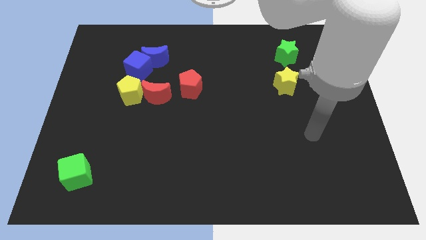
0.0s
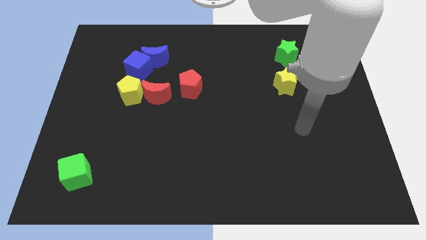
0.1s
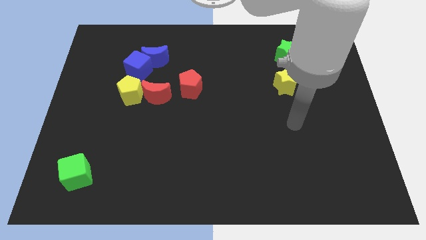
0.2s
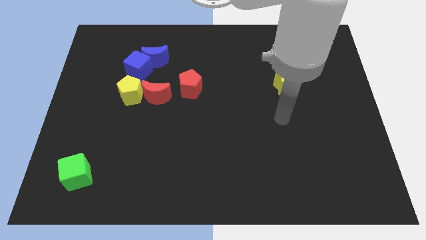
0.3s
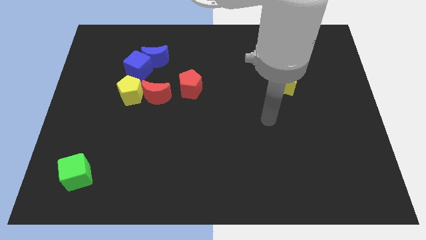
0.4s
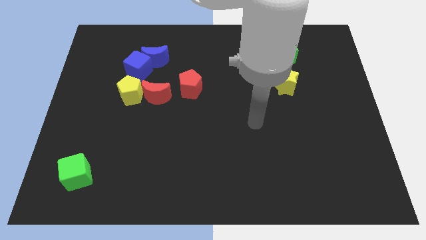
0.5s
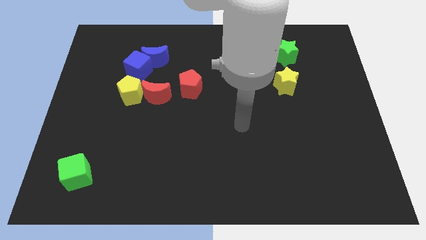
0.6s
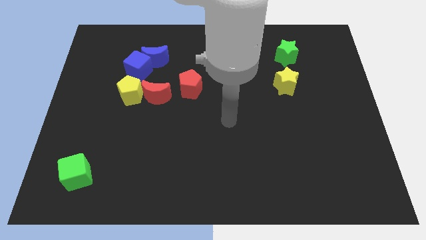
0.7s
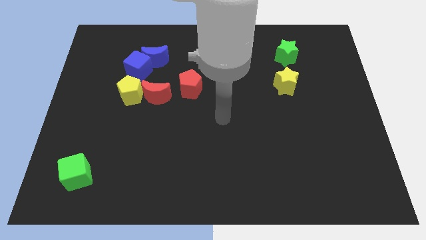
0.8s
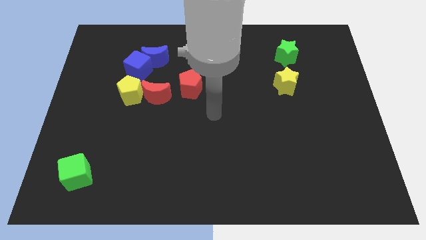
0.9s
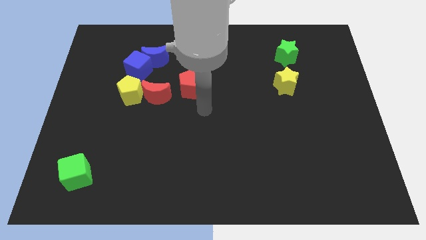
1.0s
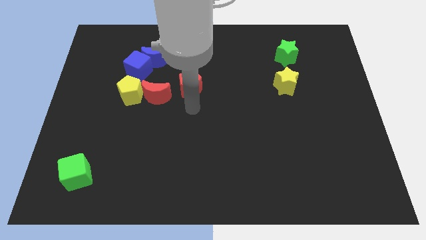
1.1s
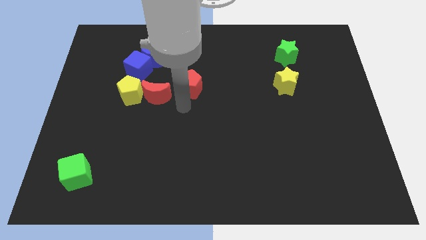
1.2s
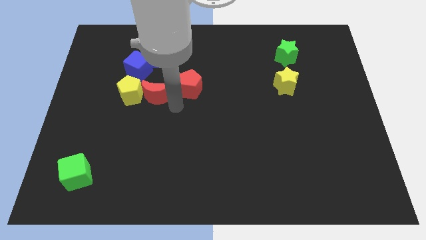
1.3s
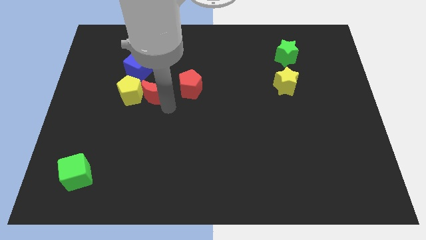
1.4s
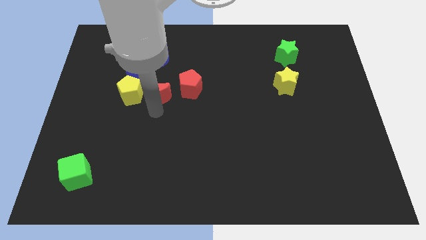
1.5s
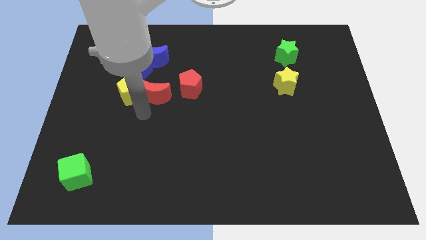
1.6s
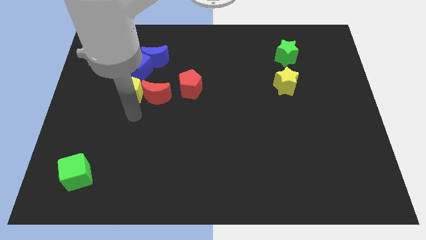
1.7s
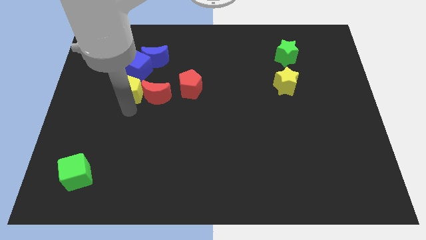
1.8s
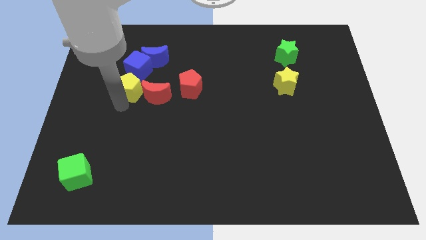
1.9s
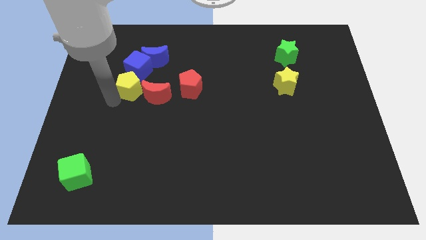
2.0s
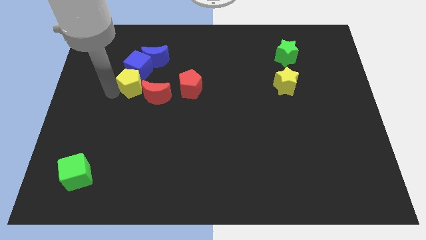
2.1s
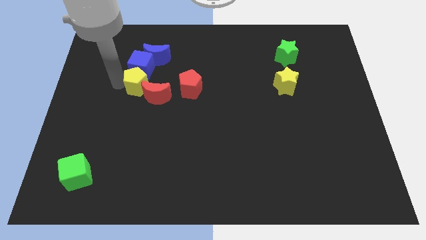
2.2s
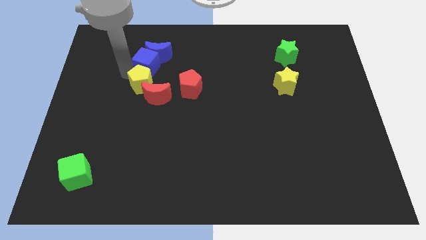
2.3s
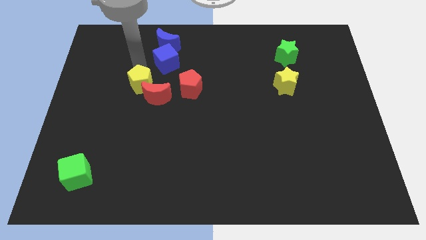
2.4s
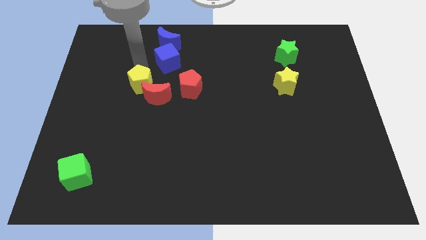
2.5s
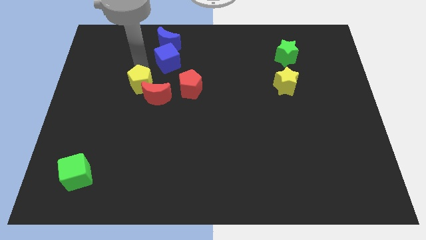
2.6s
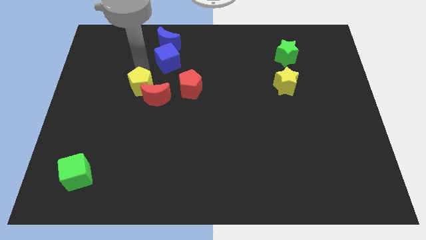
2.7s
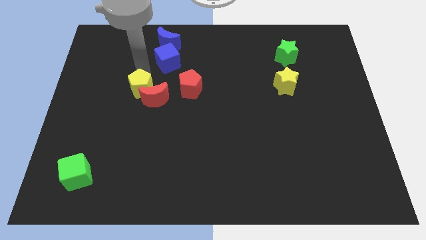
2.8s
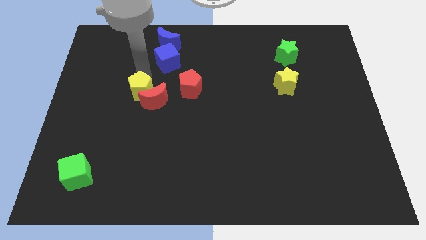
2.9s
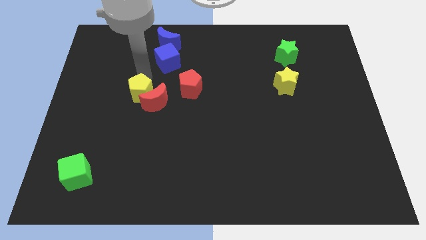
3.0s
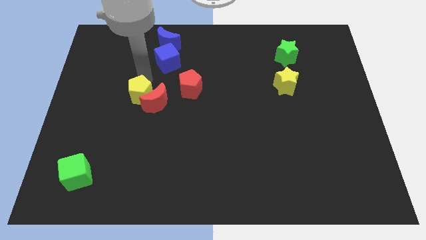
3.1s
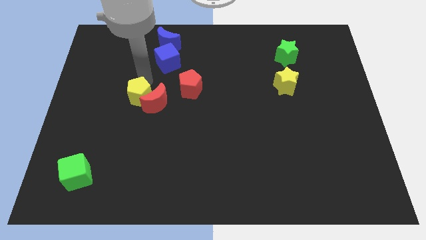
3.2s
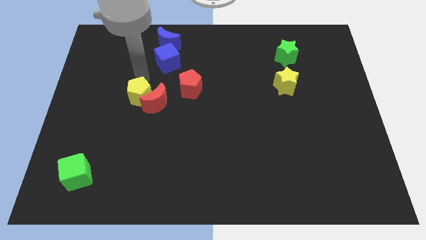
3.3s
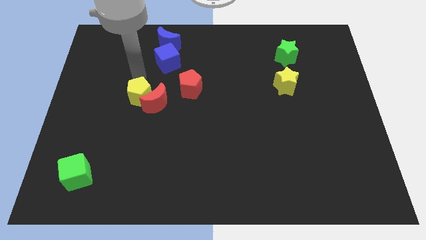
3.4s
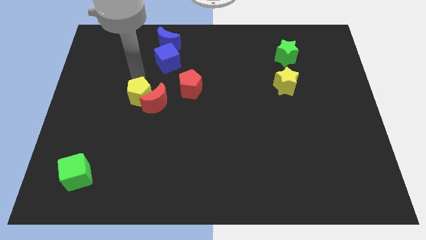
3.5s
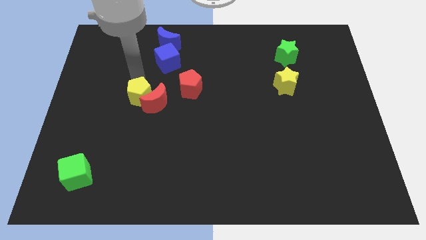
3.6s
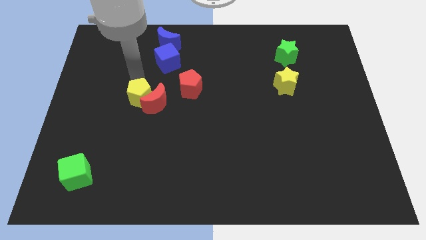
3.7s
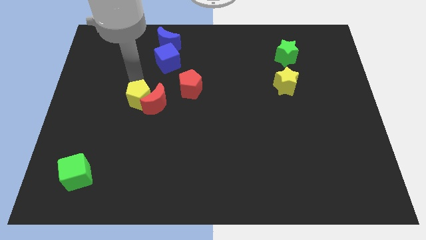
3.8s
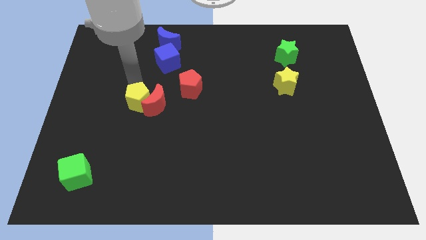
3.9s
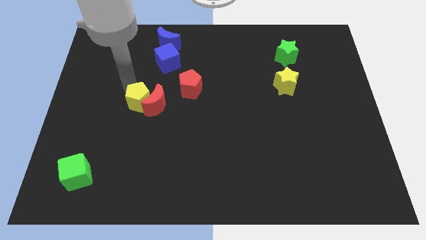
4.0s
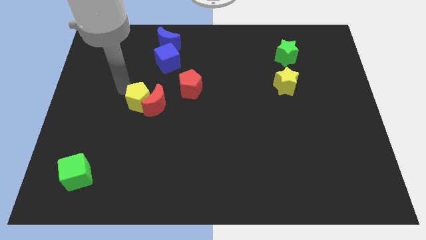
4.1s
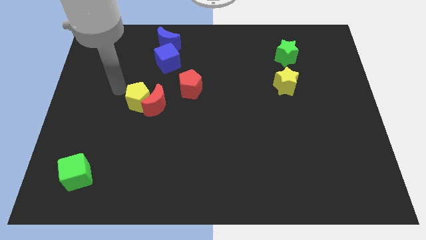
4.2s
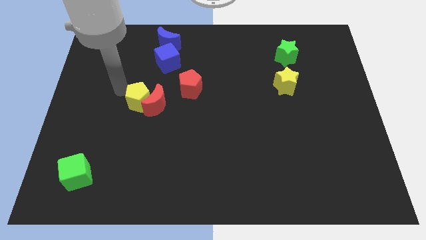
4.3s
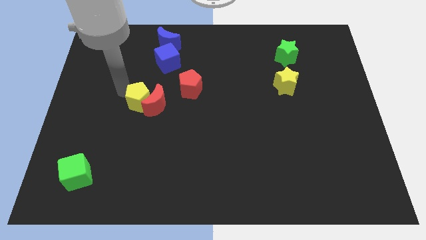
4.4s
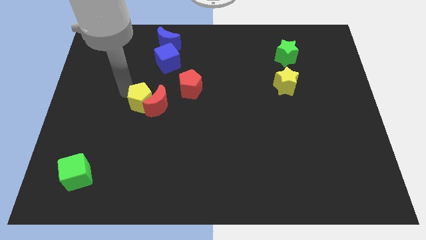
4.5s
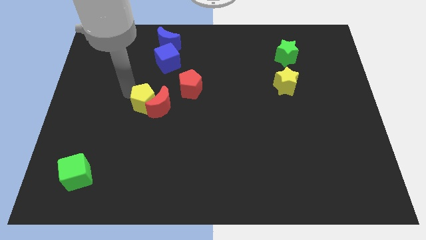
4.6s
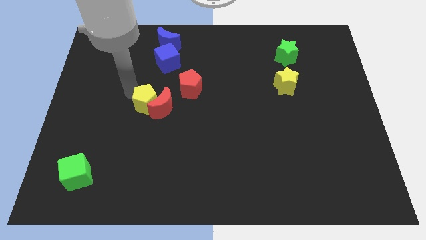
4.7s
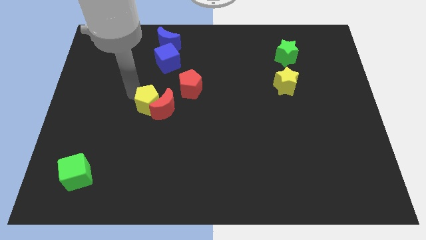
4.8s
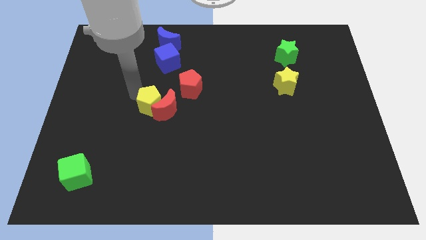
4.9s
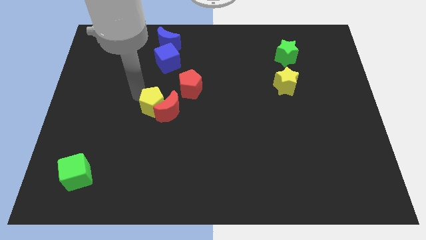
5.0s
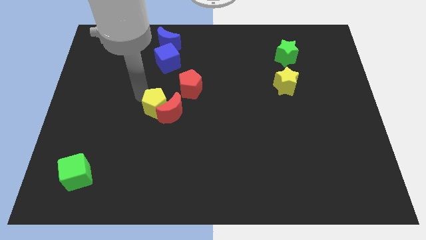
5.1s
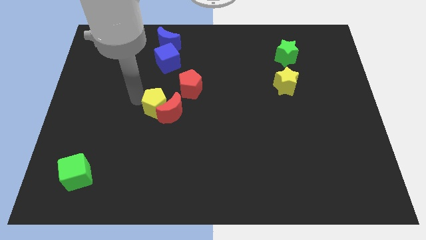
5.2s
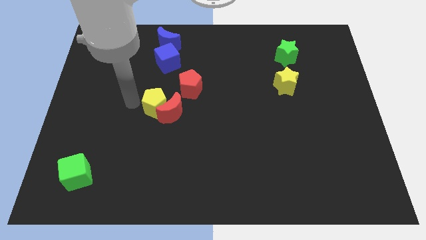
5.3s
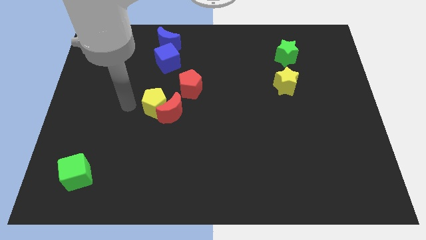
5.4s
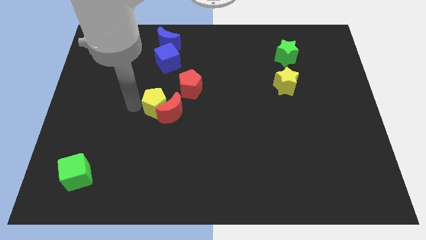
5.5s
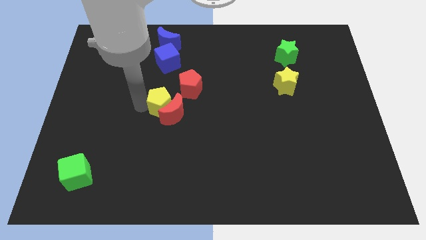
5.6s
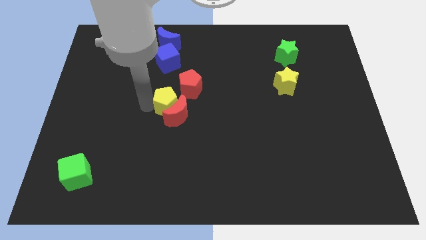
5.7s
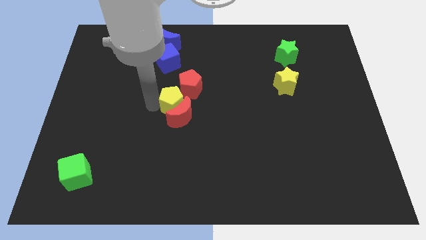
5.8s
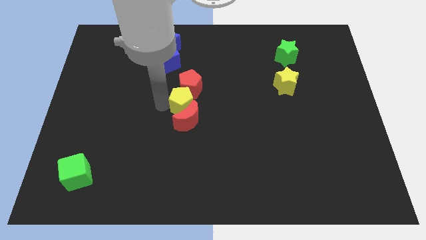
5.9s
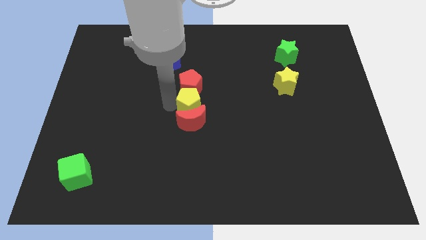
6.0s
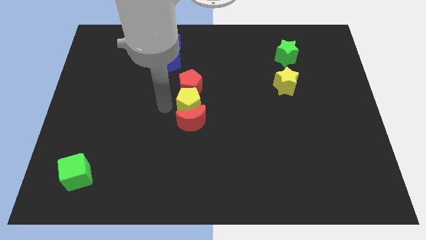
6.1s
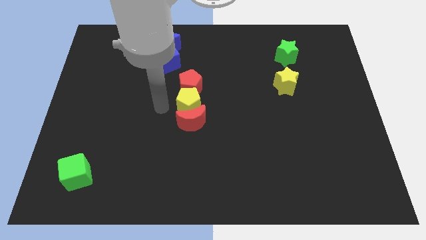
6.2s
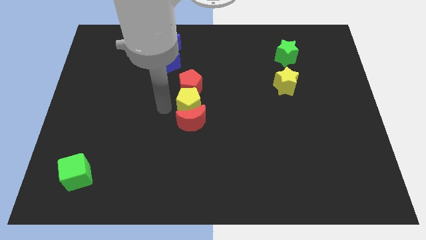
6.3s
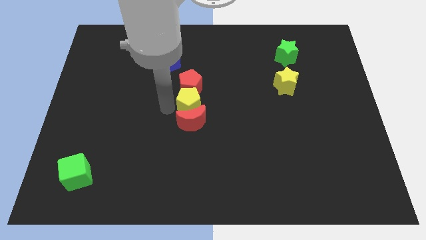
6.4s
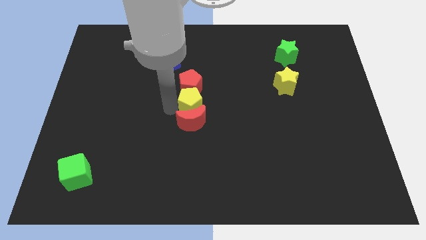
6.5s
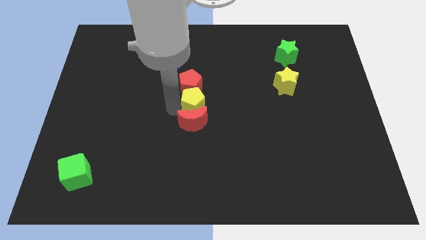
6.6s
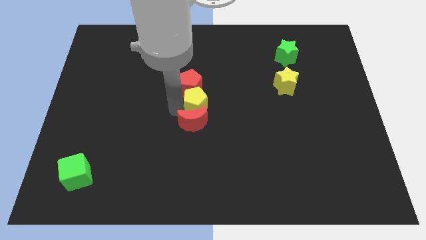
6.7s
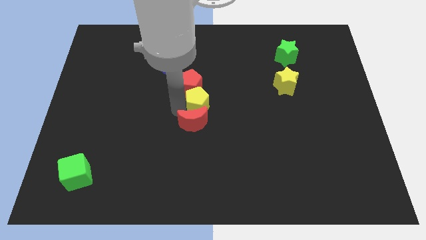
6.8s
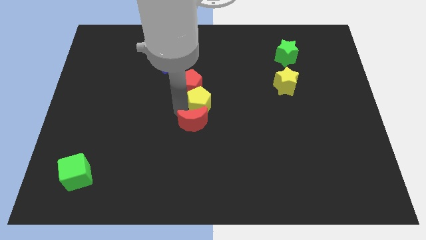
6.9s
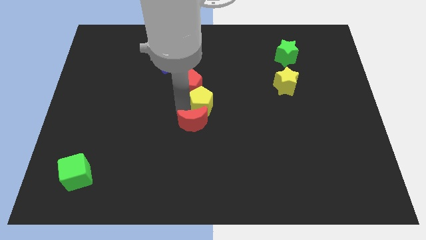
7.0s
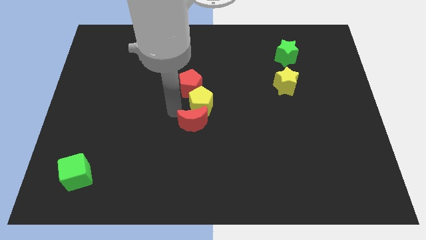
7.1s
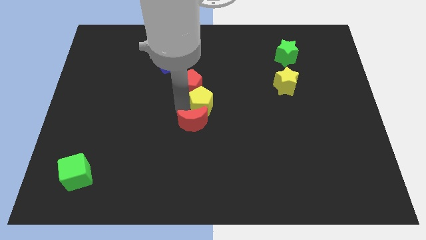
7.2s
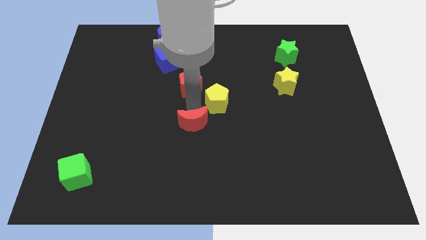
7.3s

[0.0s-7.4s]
push the yellow pentagon right

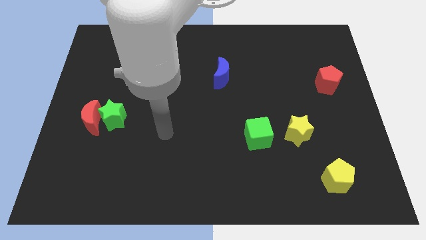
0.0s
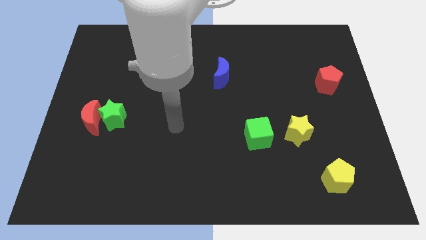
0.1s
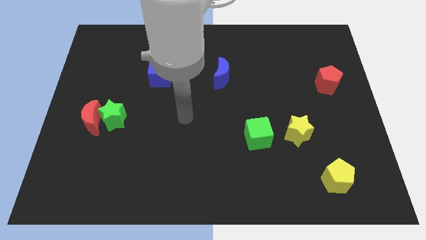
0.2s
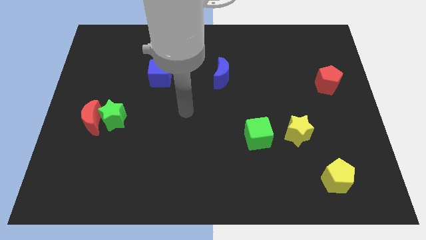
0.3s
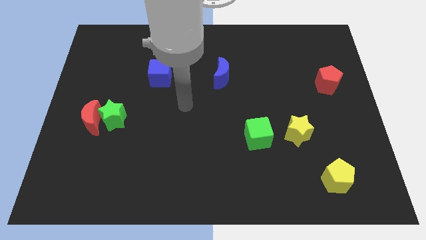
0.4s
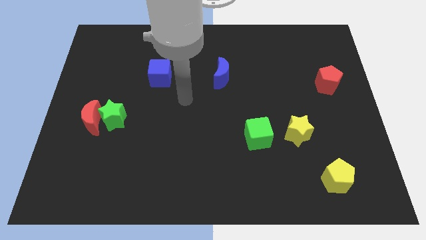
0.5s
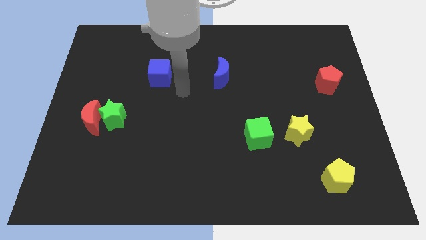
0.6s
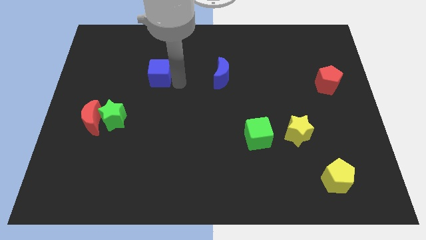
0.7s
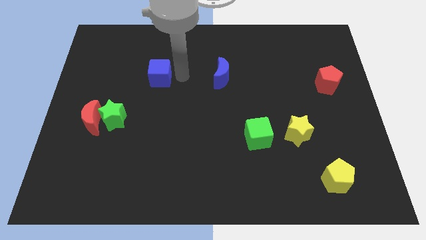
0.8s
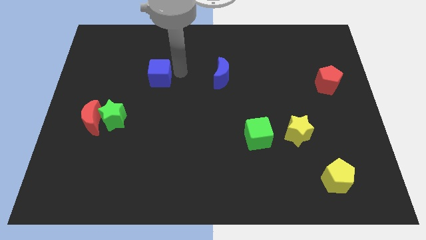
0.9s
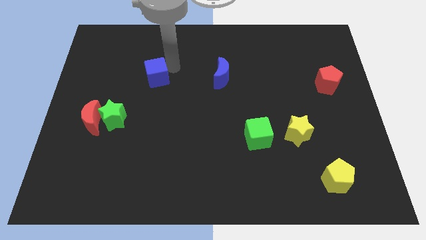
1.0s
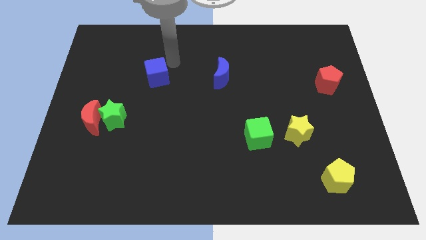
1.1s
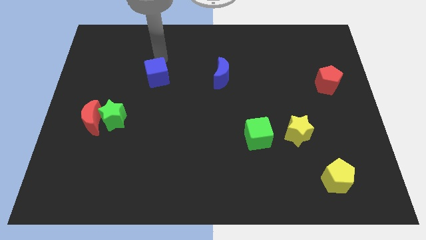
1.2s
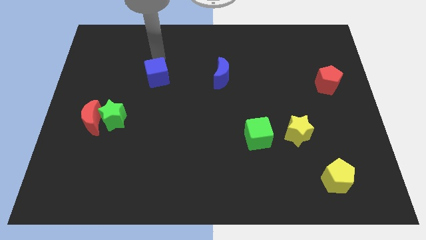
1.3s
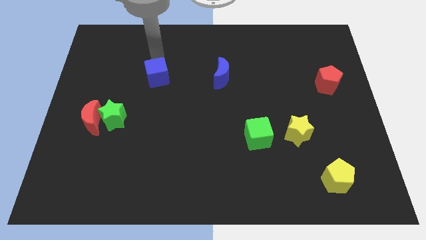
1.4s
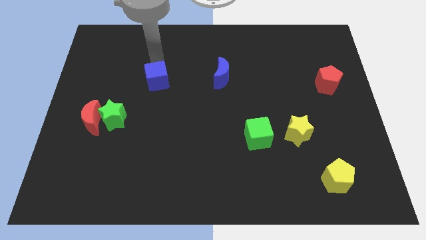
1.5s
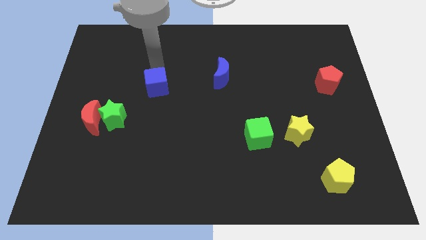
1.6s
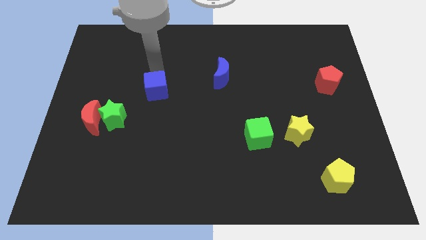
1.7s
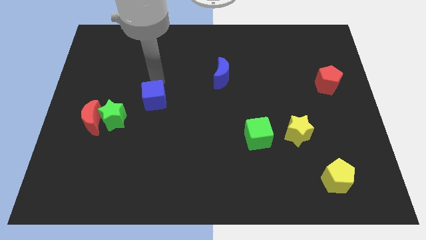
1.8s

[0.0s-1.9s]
slide the blue cube slightly down
